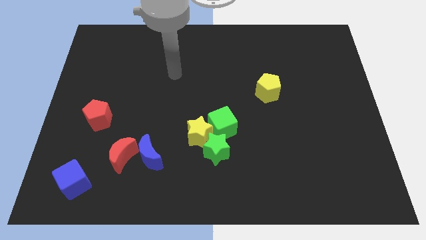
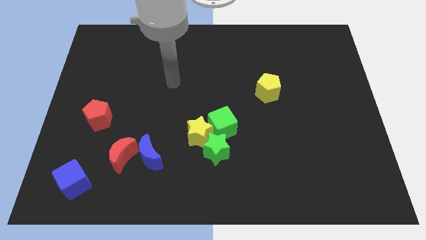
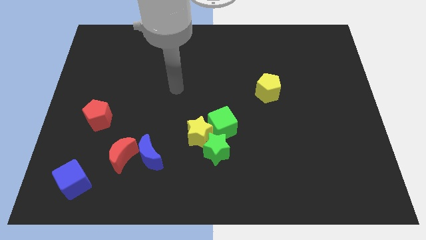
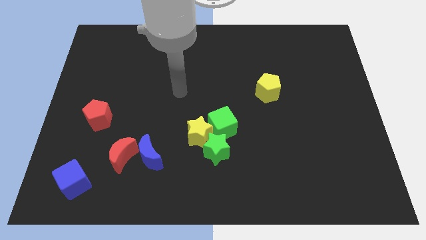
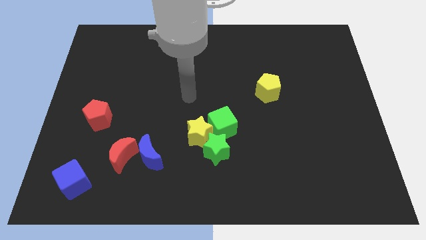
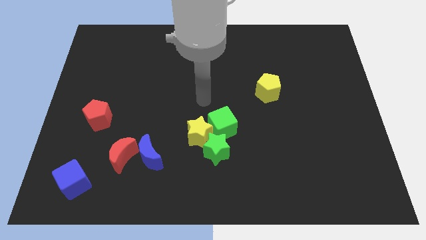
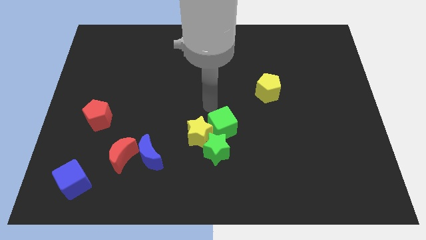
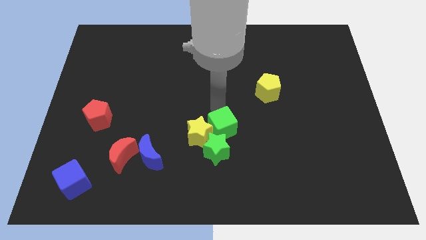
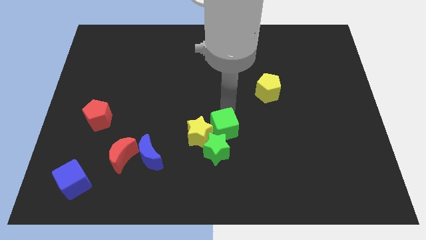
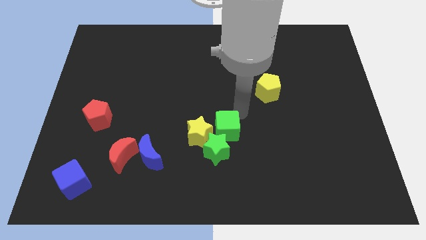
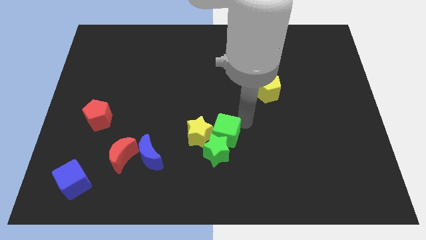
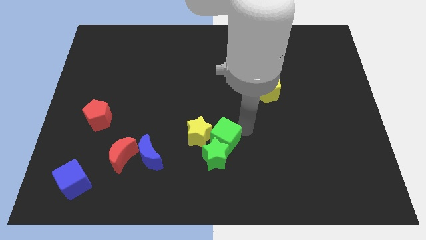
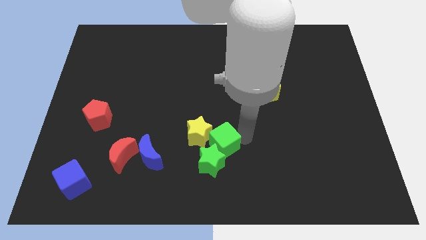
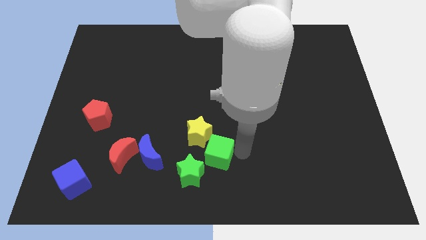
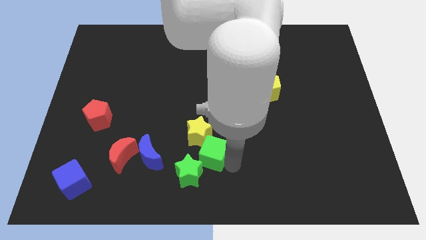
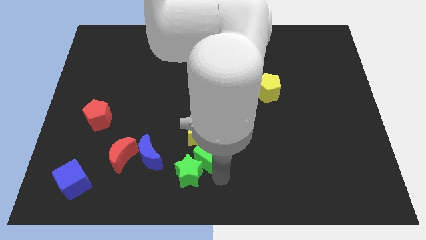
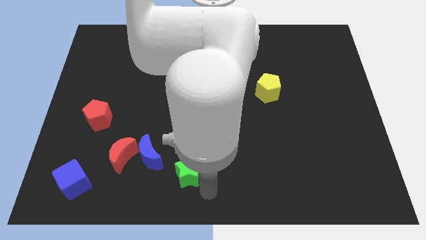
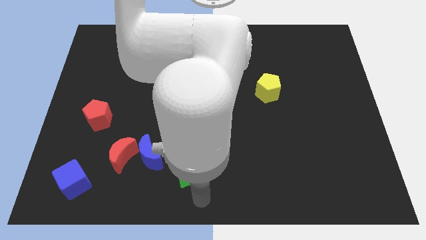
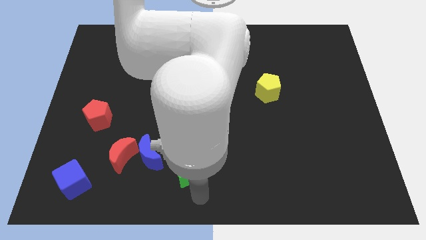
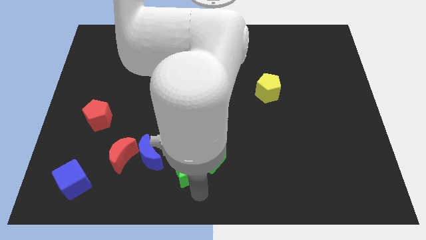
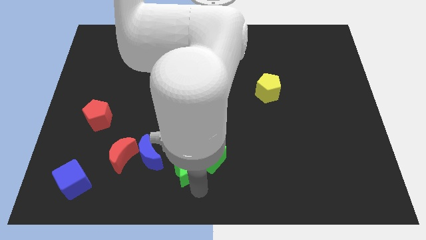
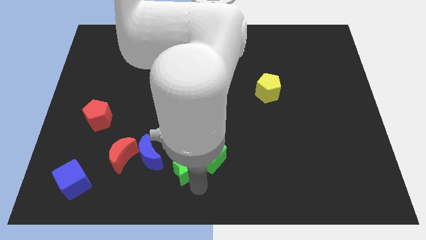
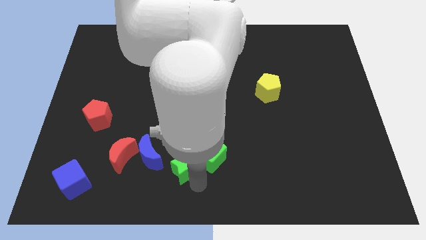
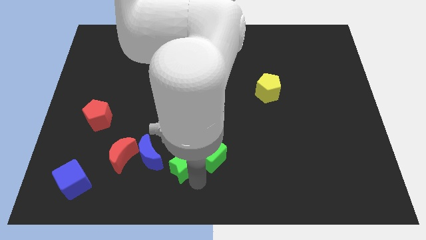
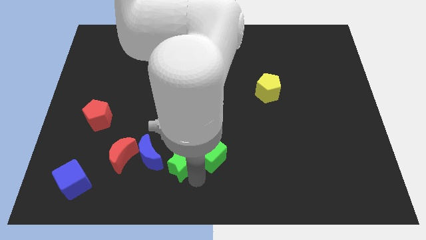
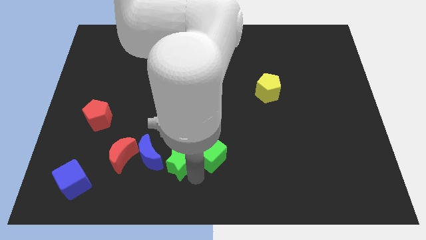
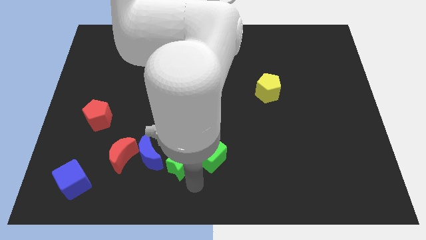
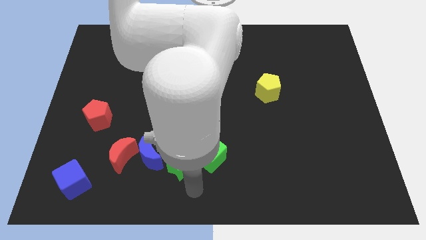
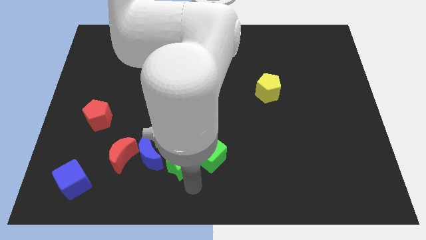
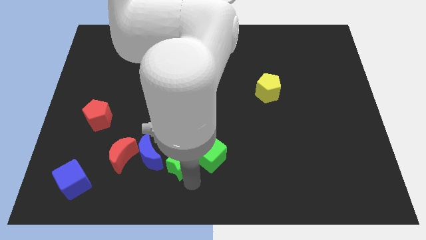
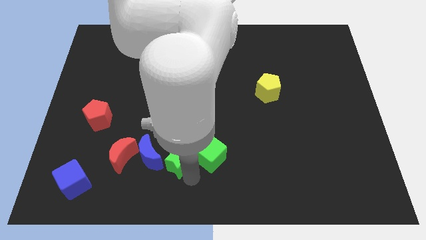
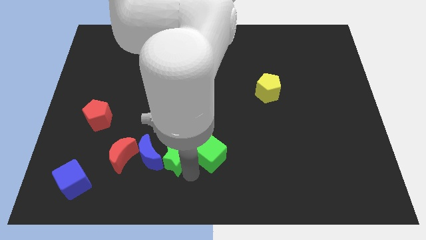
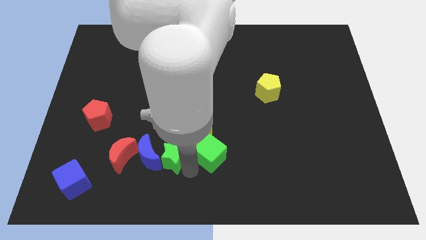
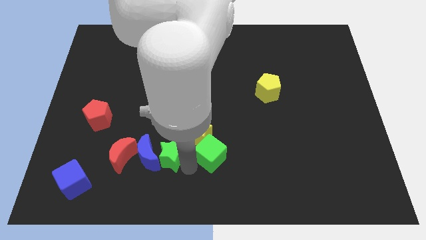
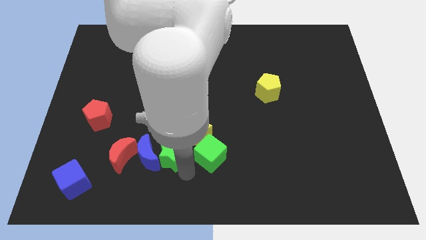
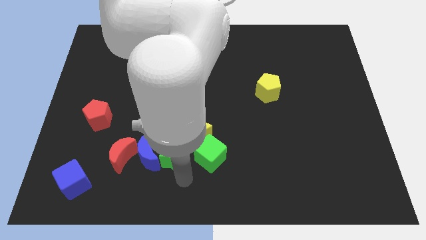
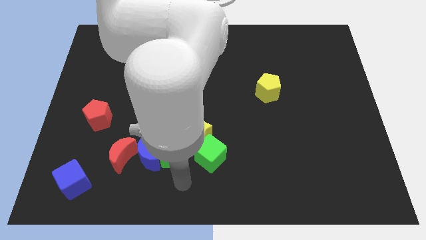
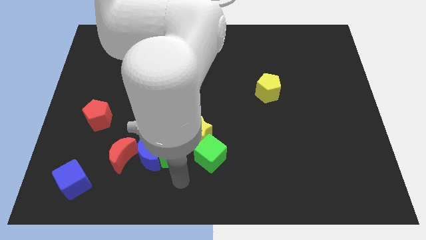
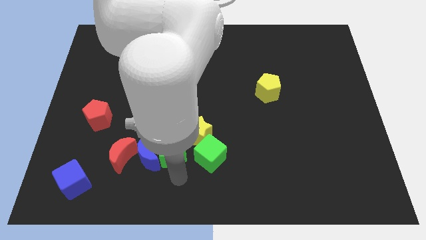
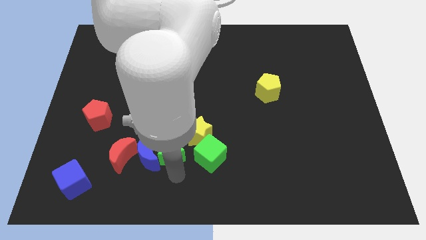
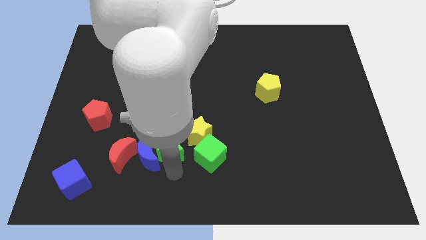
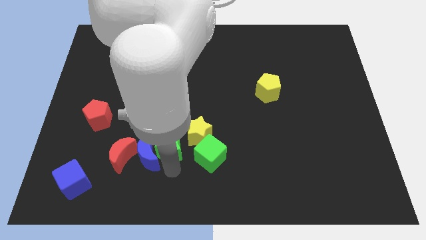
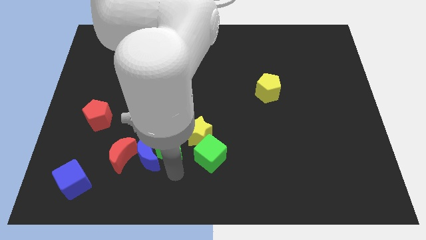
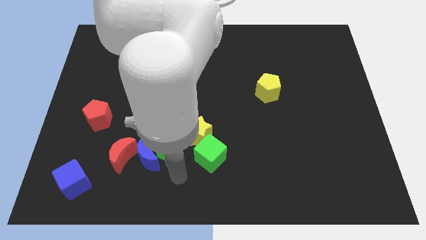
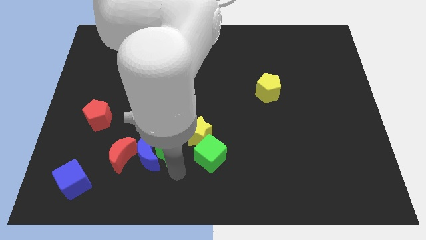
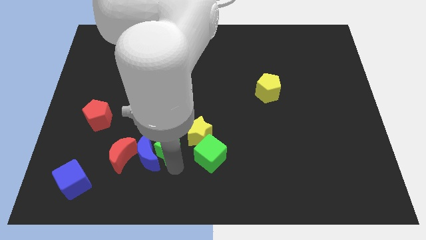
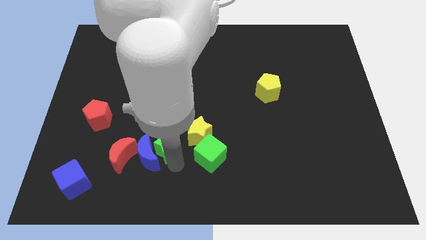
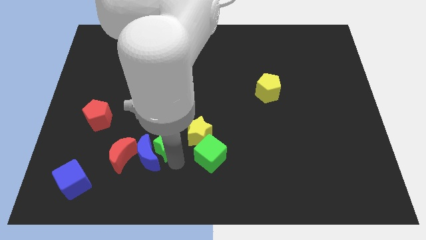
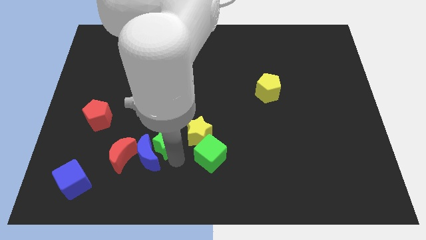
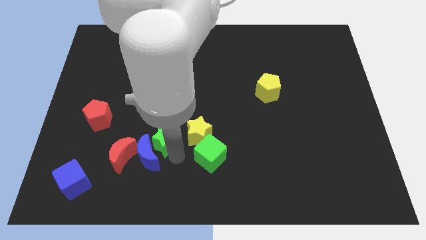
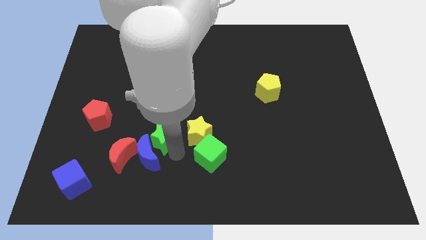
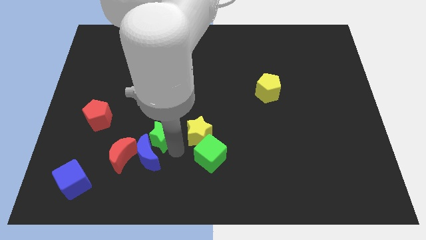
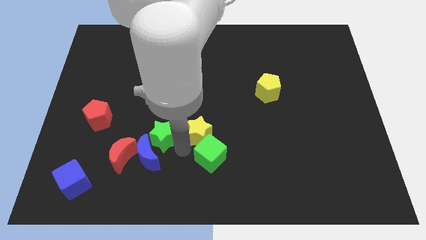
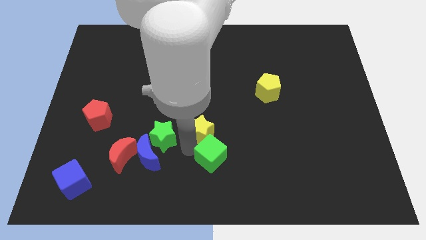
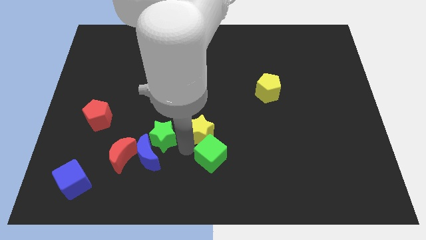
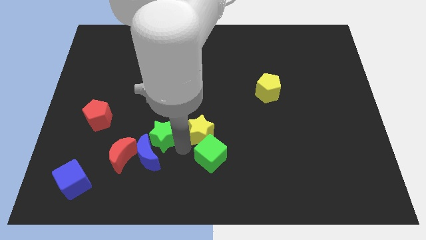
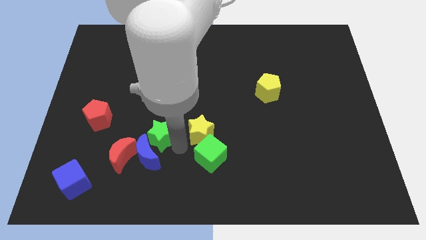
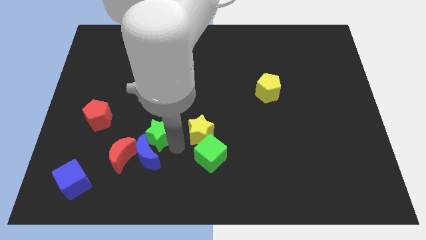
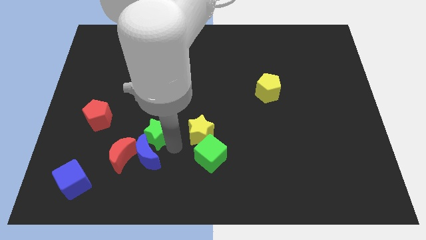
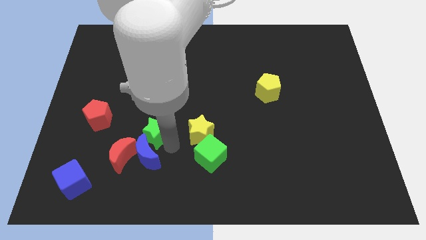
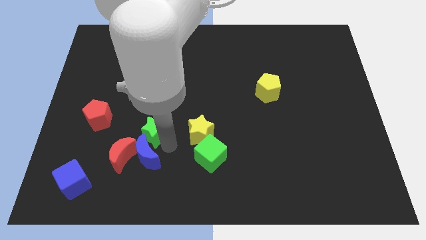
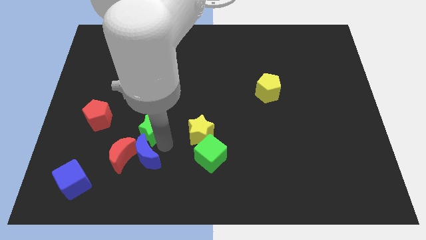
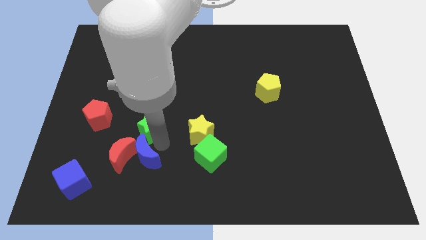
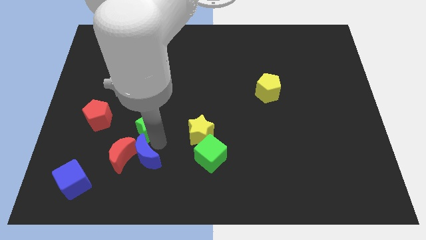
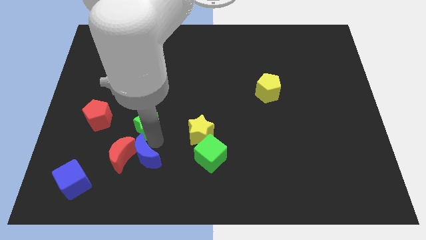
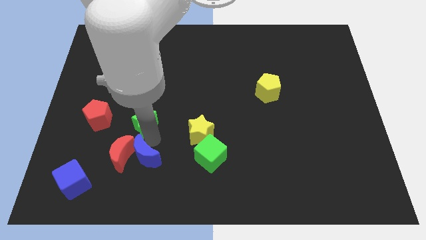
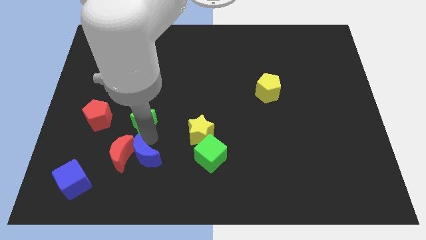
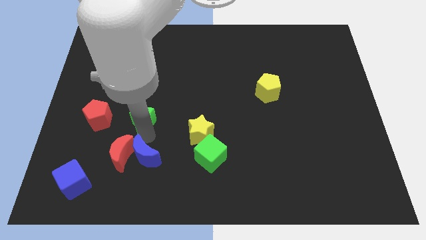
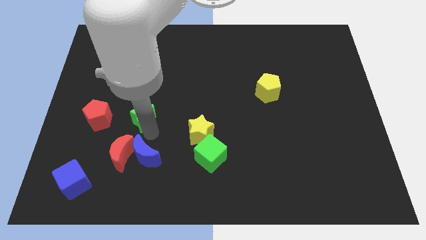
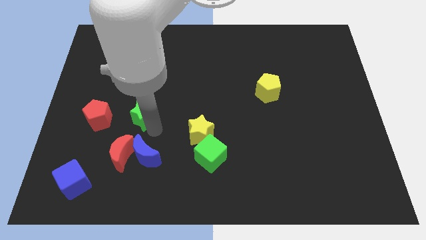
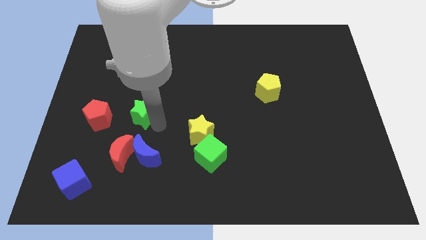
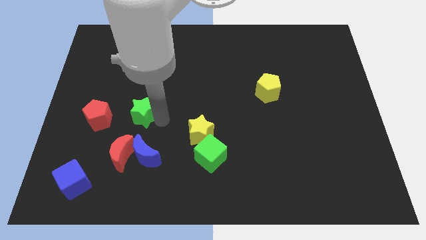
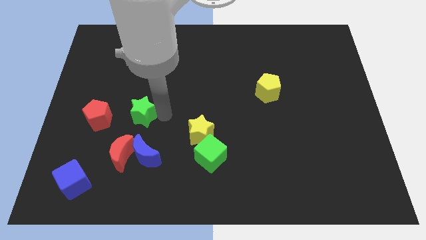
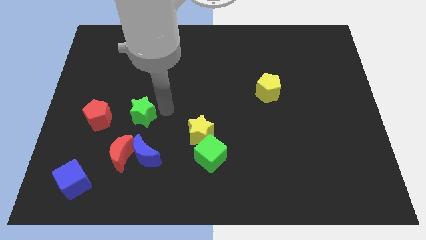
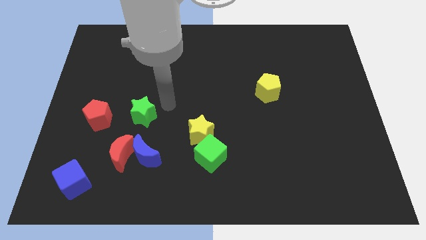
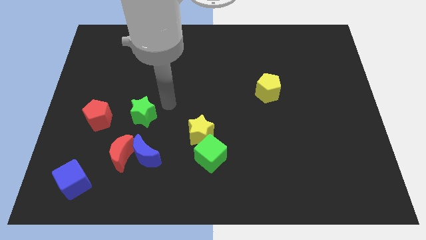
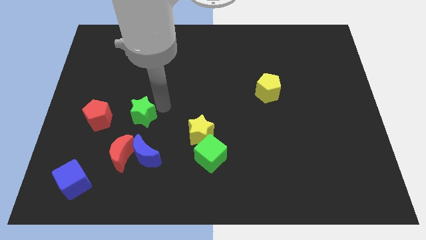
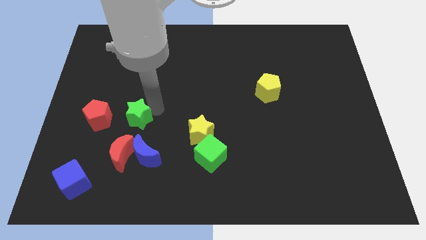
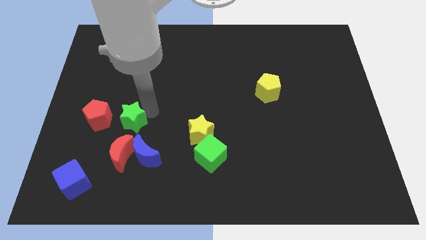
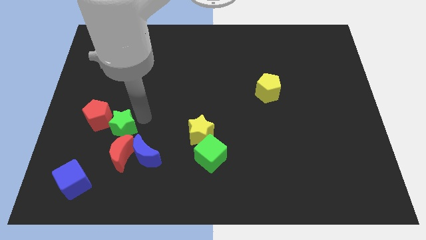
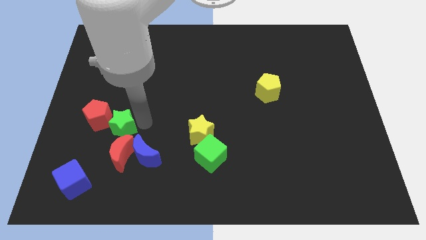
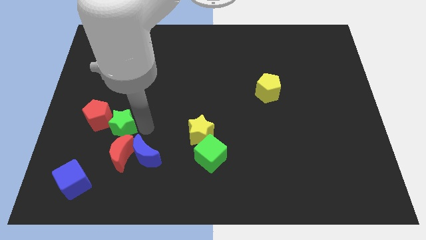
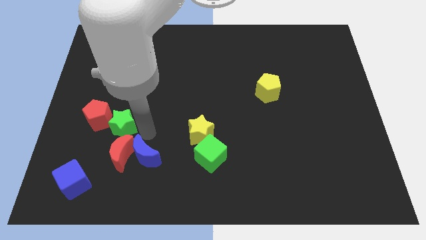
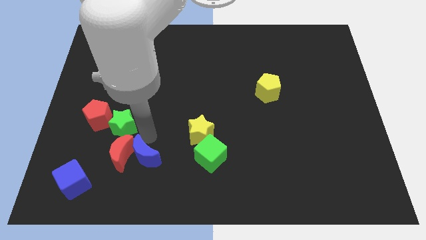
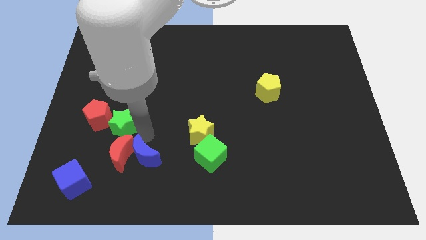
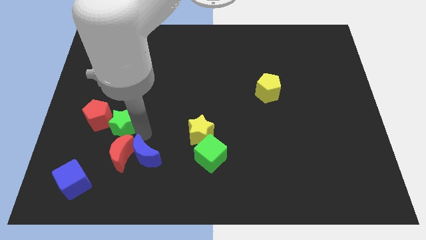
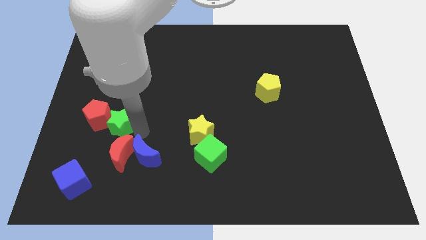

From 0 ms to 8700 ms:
put the green star to the red pentagon
